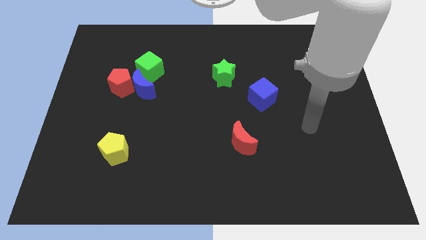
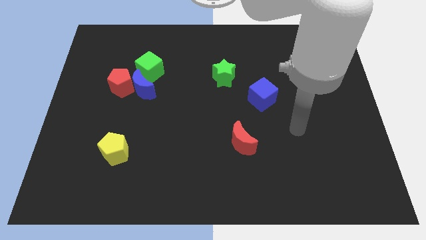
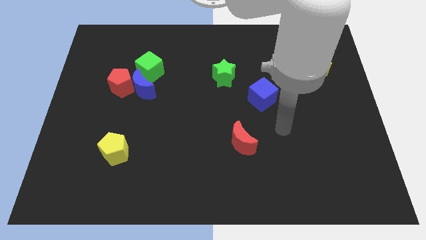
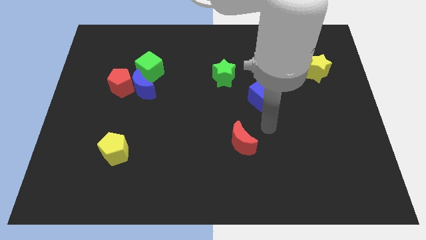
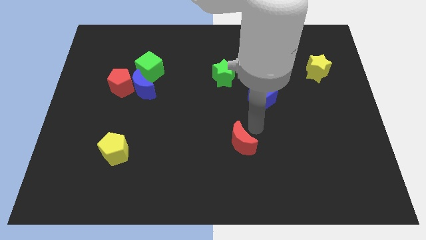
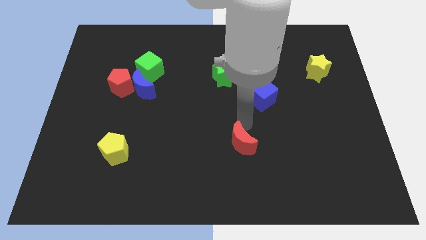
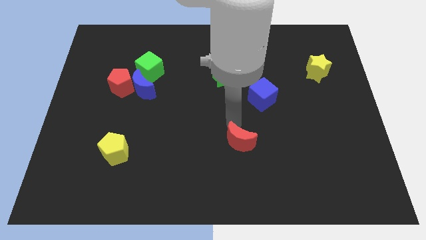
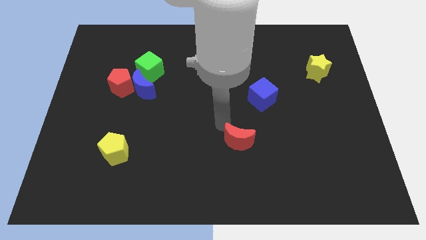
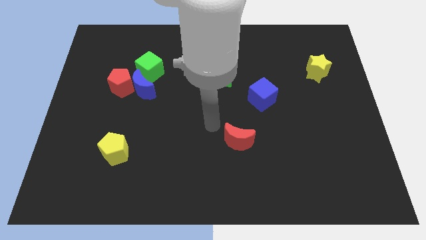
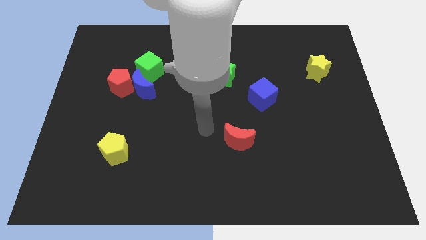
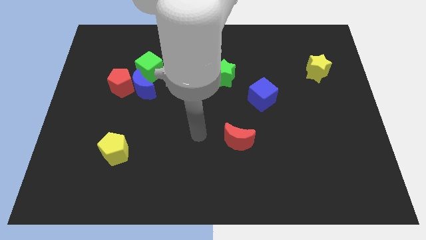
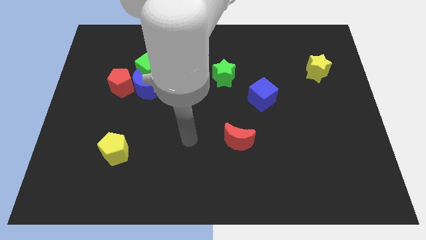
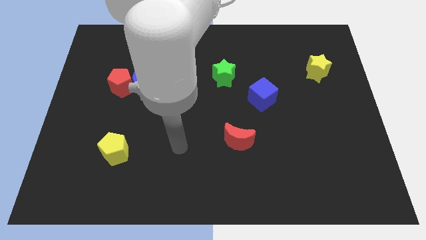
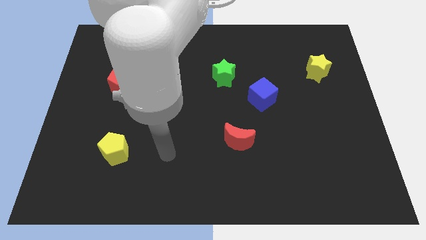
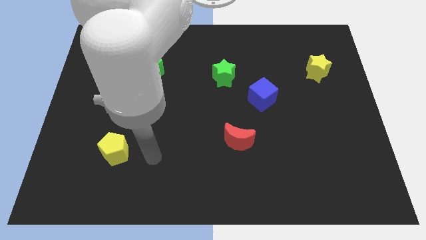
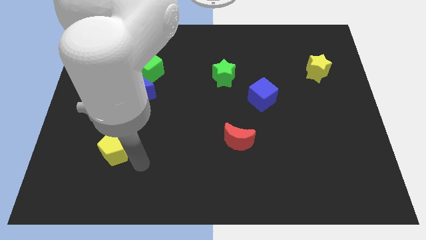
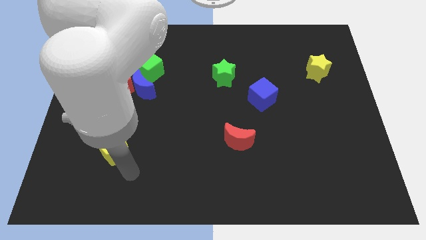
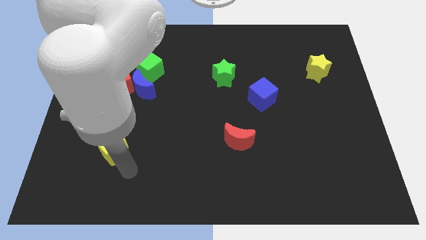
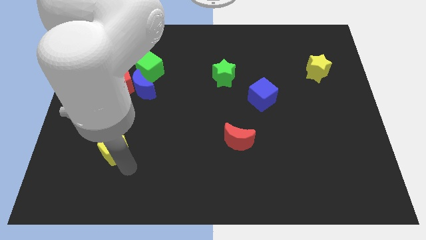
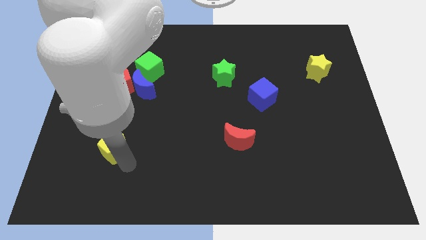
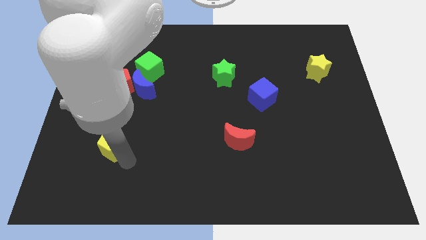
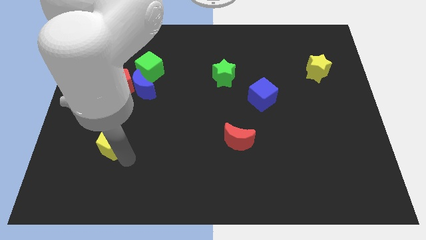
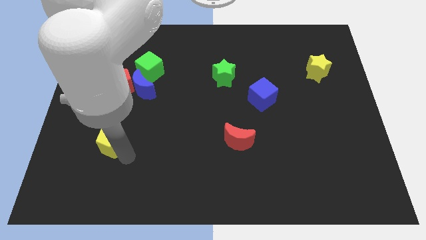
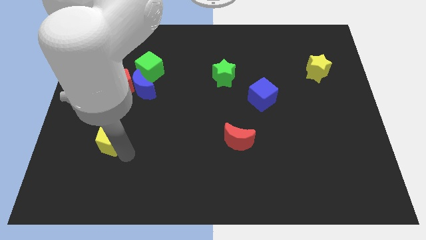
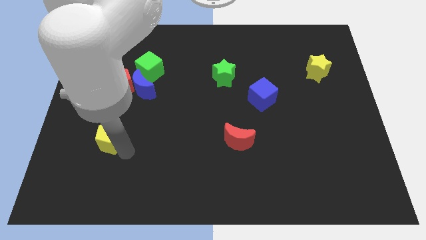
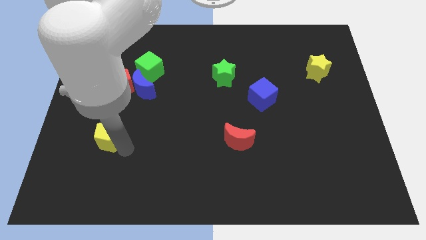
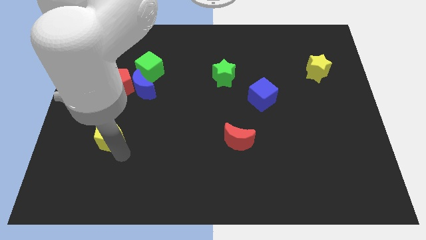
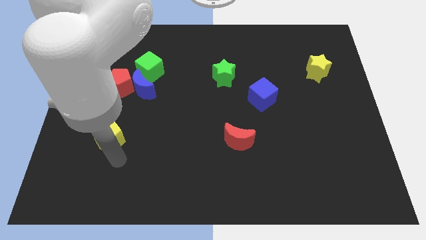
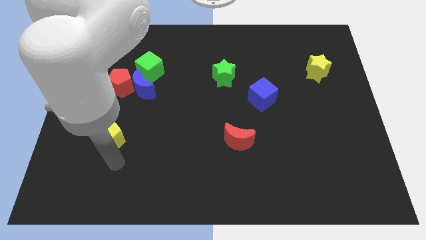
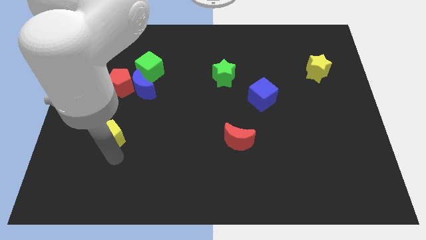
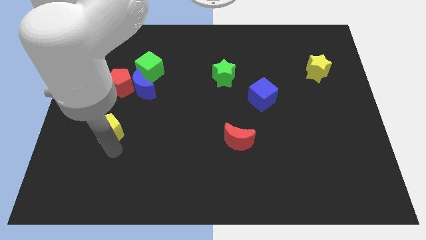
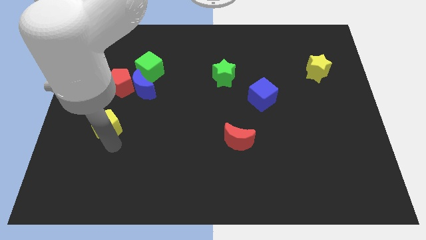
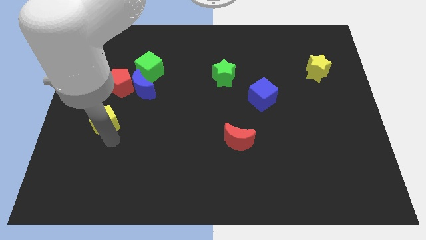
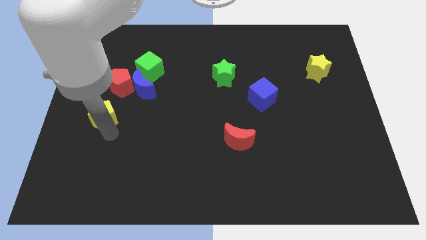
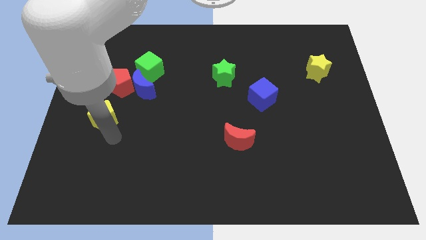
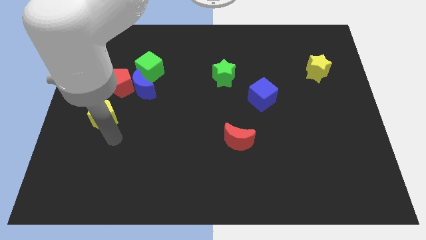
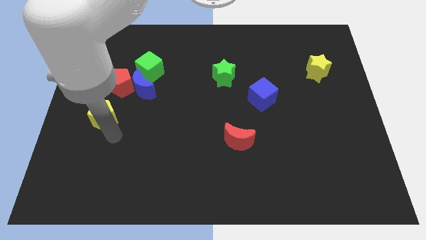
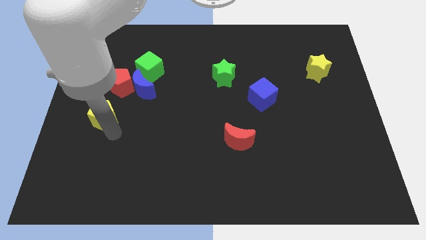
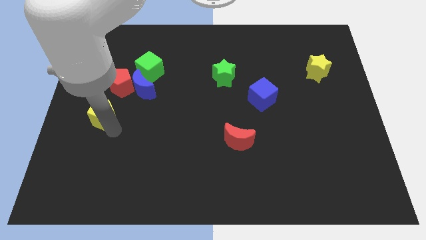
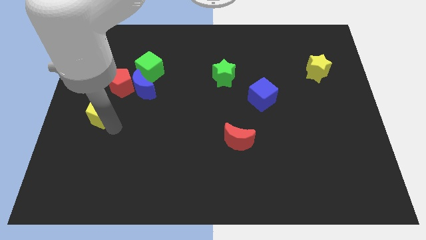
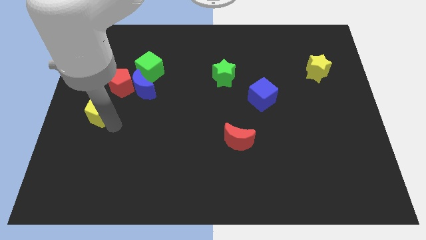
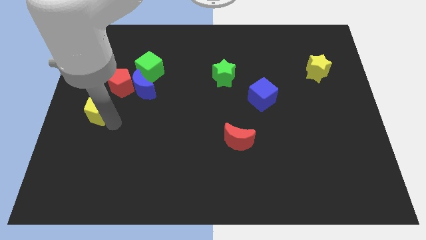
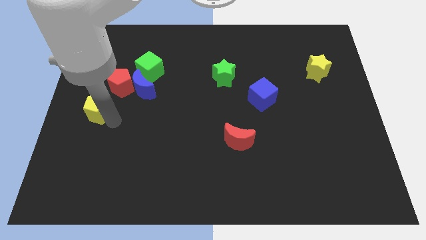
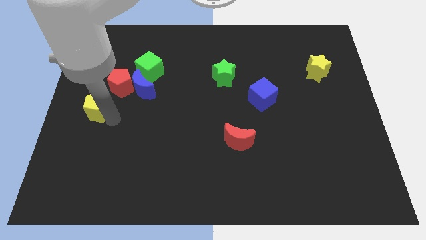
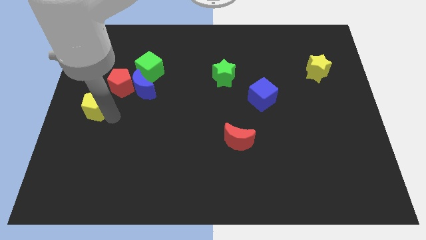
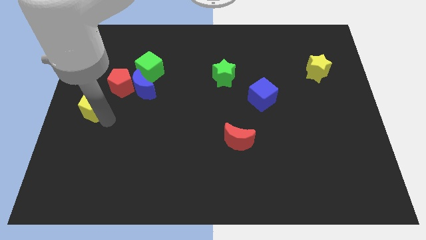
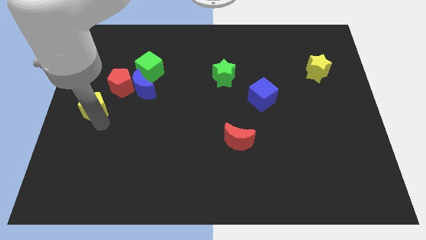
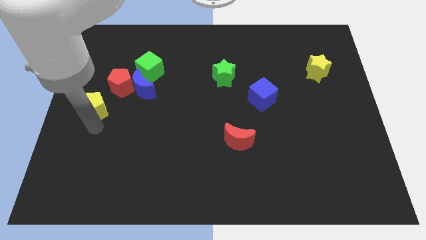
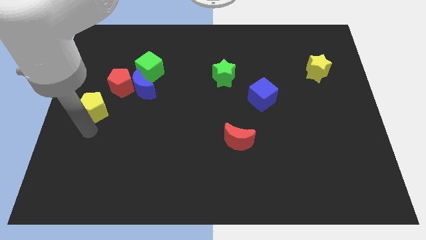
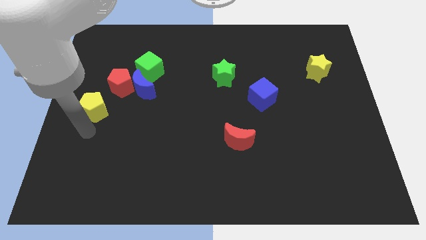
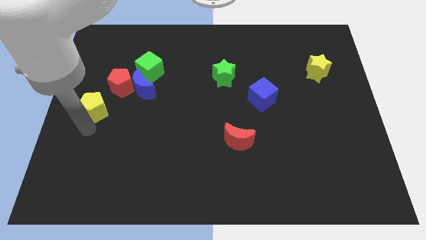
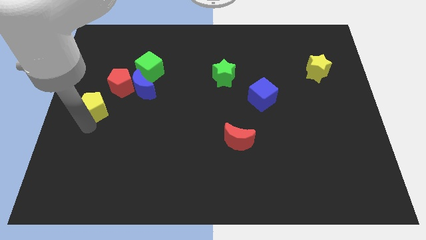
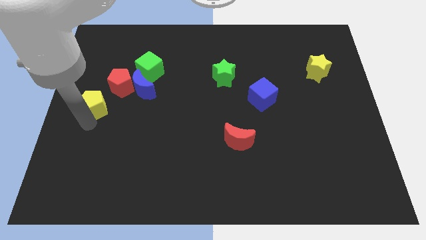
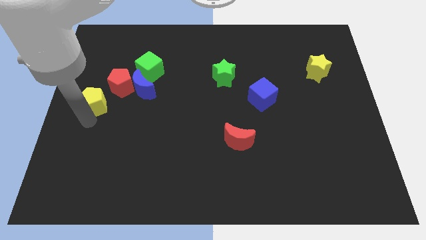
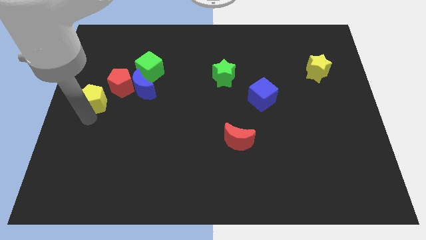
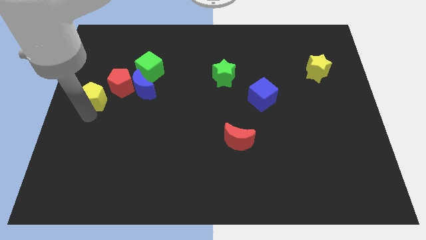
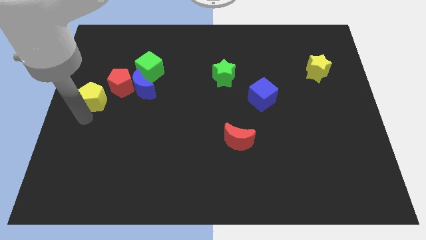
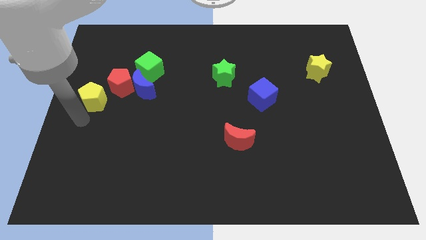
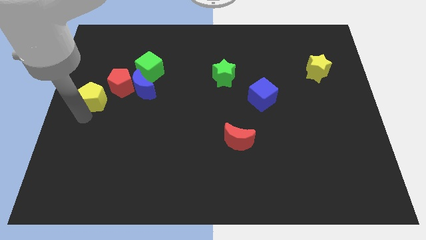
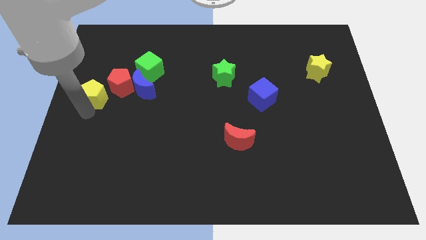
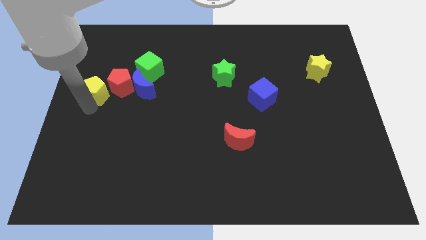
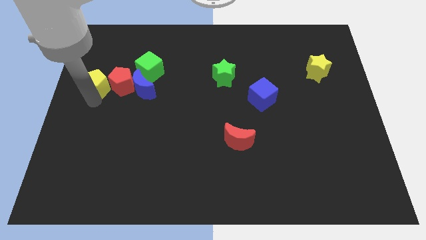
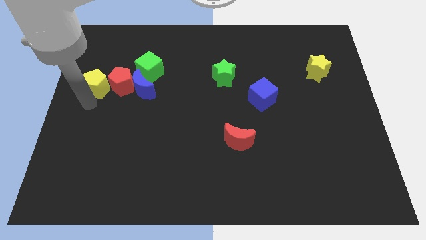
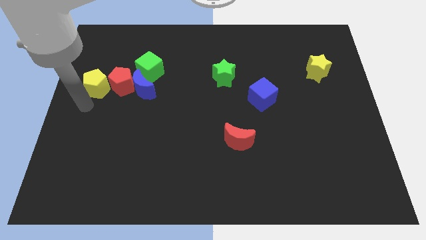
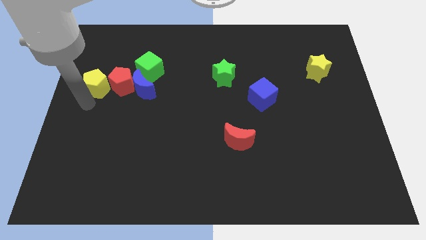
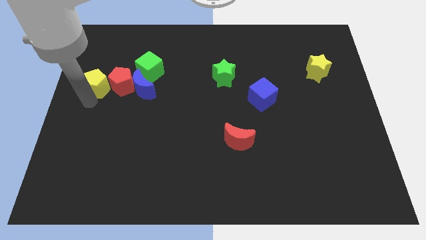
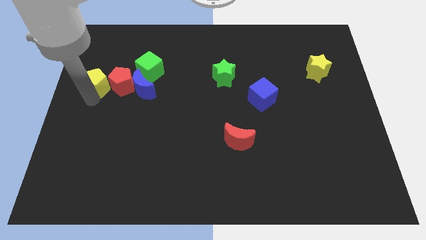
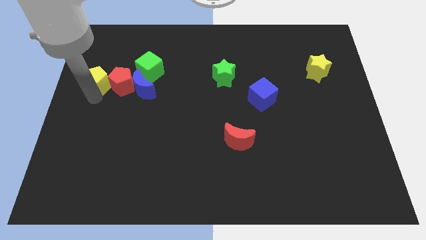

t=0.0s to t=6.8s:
put the yellow pentagon to the left of the green cube
